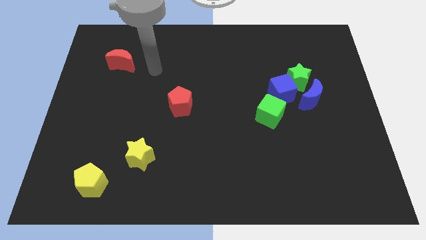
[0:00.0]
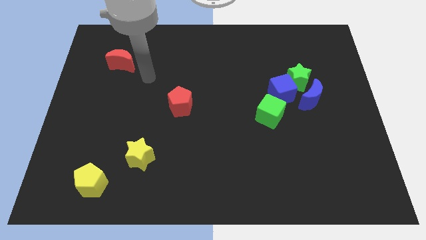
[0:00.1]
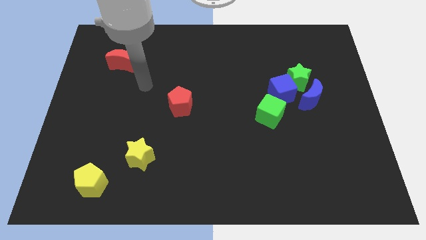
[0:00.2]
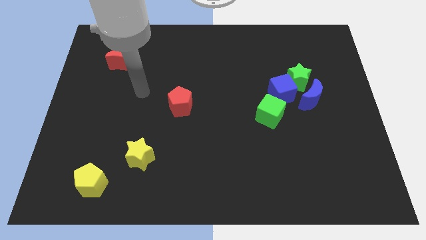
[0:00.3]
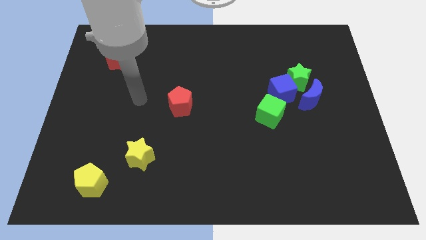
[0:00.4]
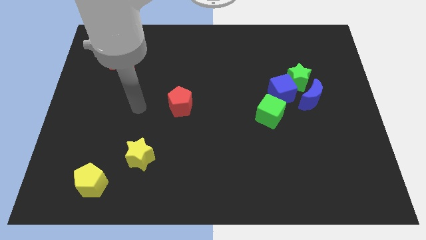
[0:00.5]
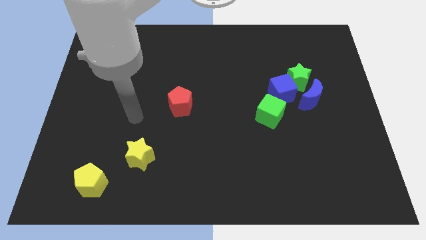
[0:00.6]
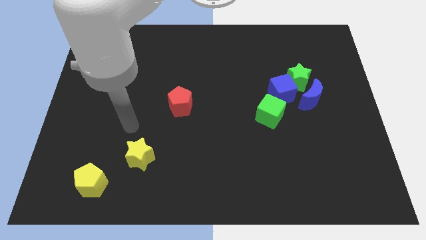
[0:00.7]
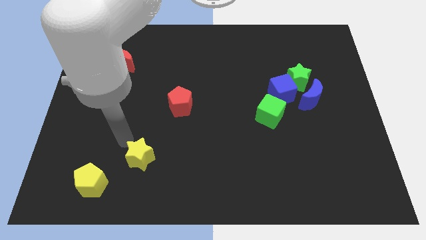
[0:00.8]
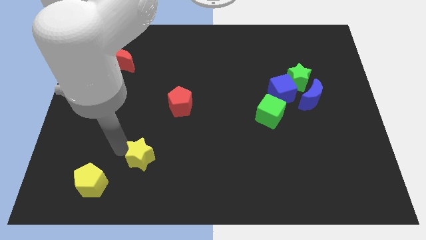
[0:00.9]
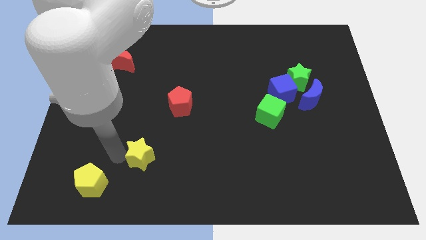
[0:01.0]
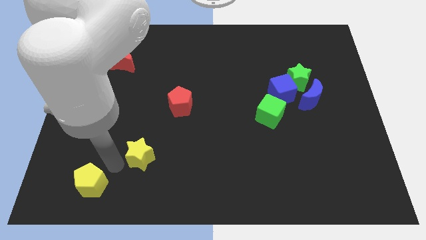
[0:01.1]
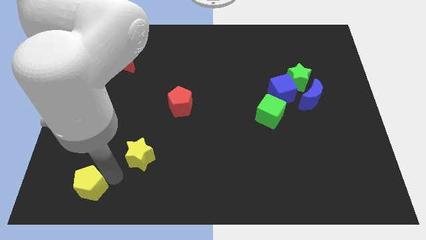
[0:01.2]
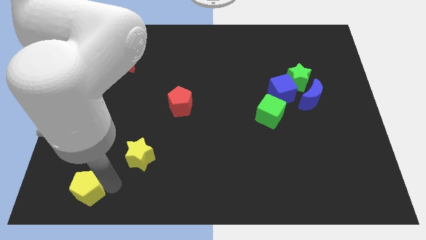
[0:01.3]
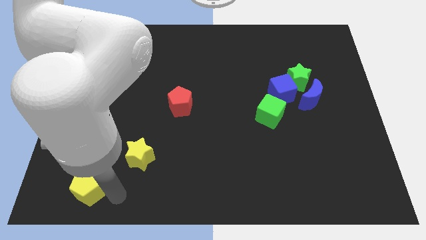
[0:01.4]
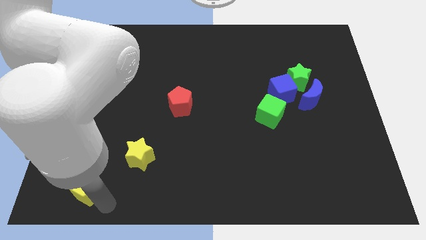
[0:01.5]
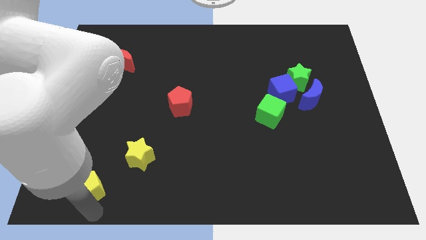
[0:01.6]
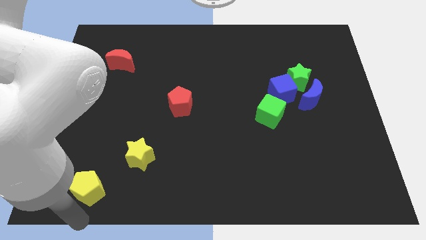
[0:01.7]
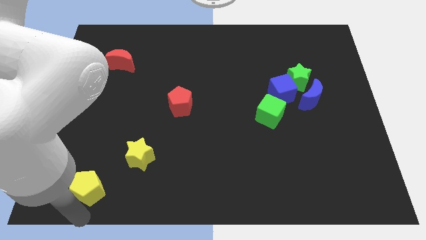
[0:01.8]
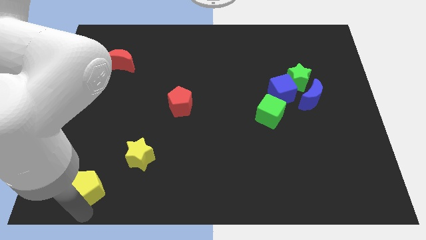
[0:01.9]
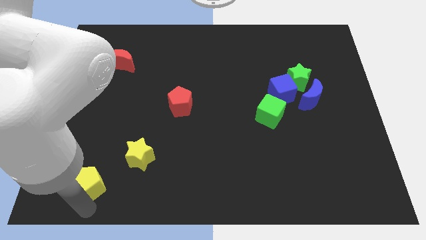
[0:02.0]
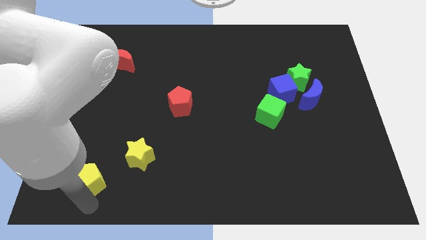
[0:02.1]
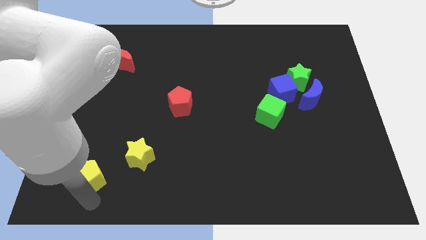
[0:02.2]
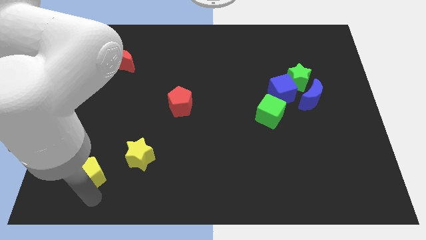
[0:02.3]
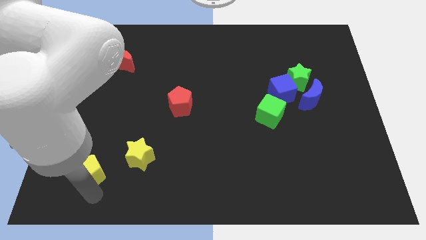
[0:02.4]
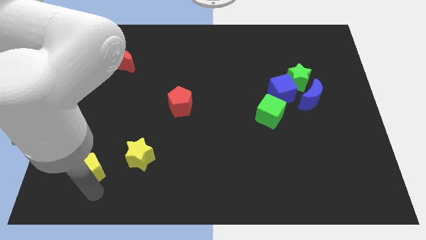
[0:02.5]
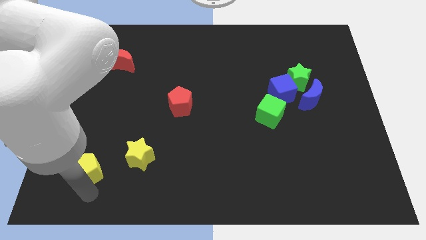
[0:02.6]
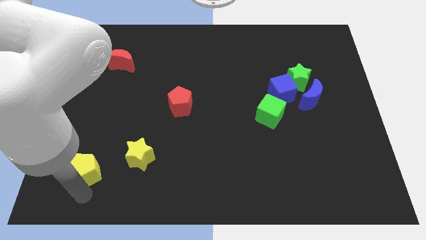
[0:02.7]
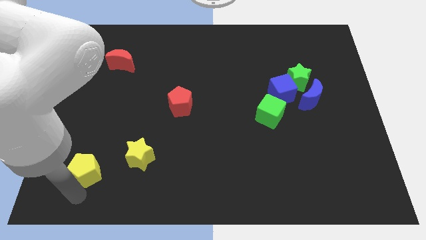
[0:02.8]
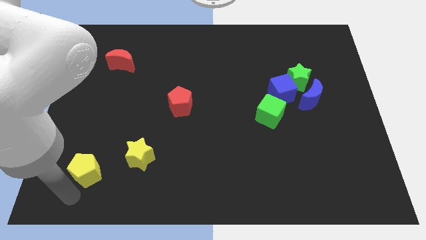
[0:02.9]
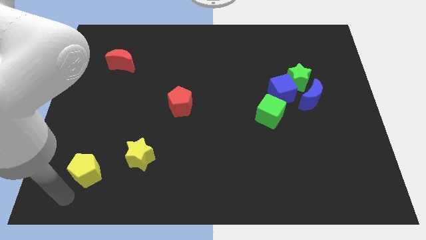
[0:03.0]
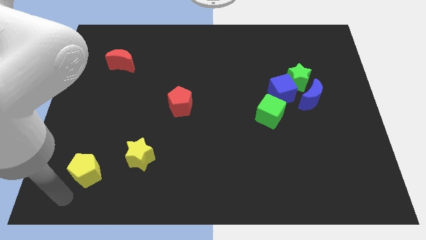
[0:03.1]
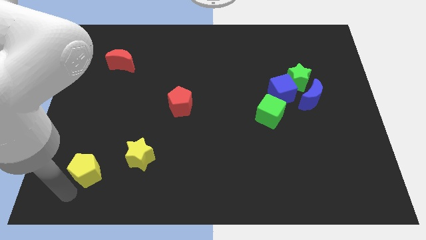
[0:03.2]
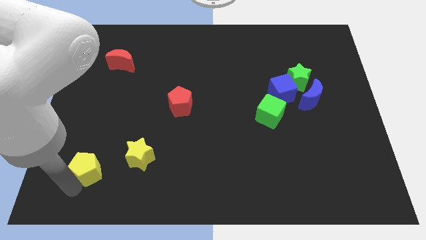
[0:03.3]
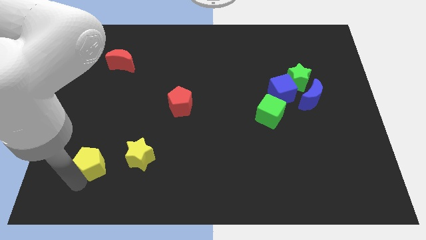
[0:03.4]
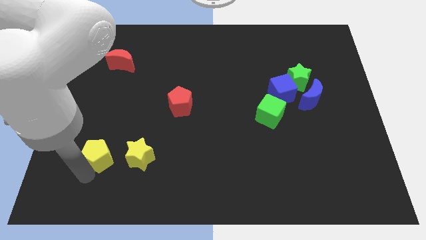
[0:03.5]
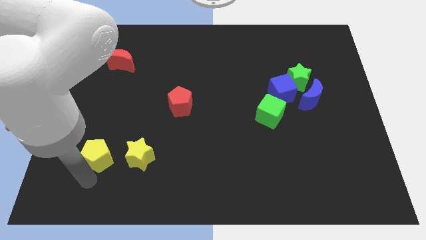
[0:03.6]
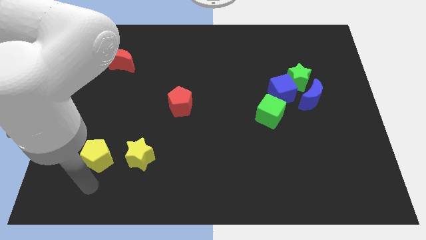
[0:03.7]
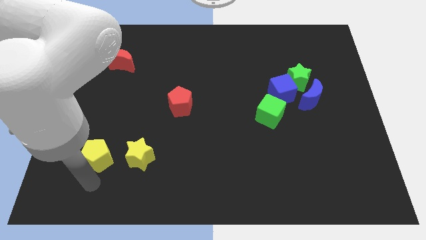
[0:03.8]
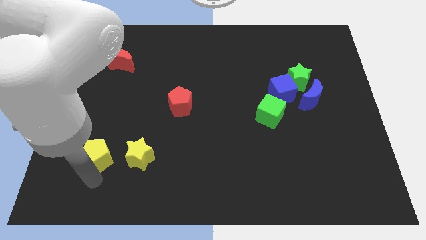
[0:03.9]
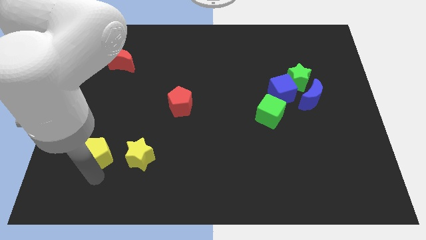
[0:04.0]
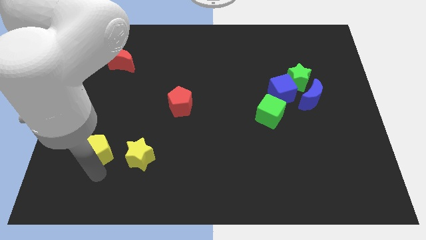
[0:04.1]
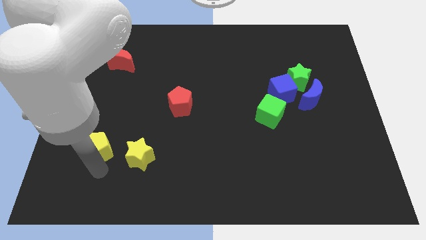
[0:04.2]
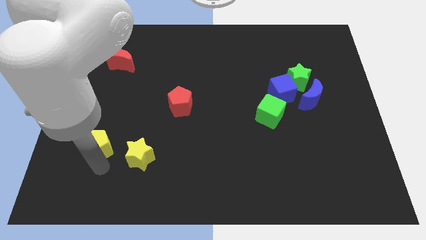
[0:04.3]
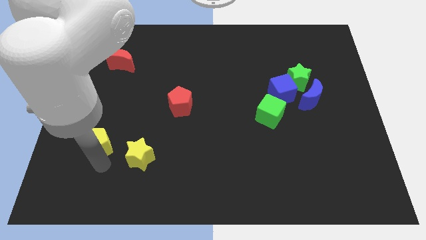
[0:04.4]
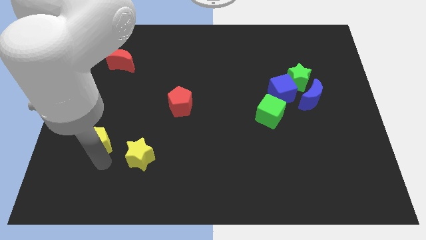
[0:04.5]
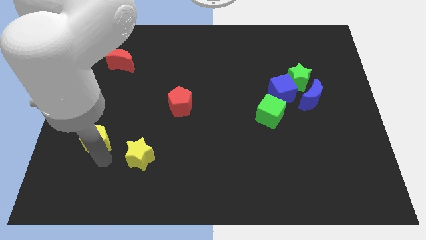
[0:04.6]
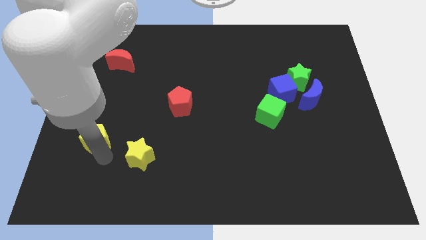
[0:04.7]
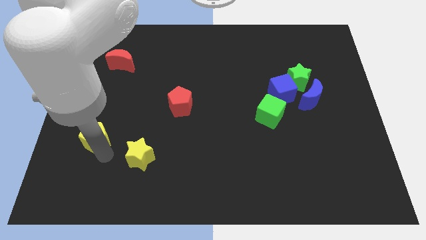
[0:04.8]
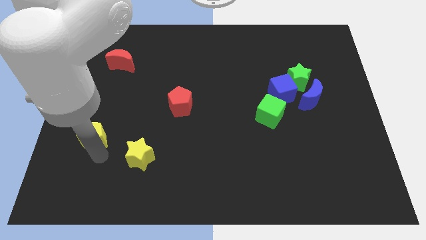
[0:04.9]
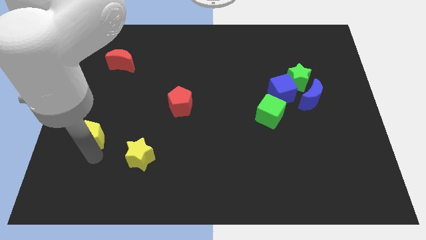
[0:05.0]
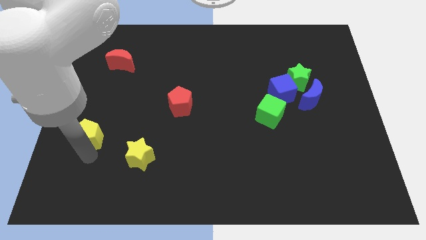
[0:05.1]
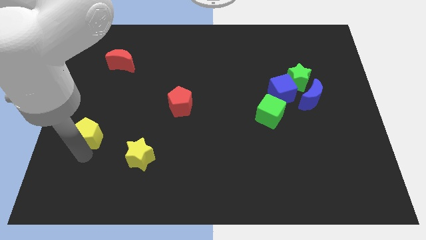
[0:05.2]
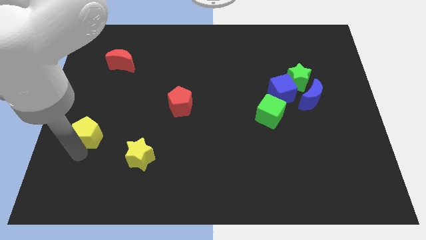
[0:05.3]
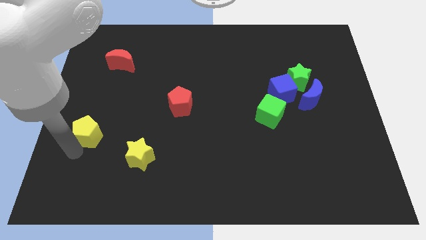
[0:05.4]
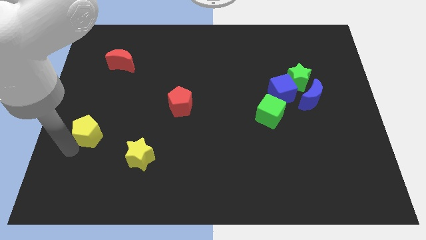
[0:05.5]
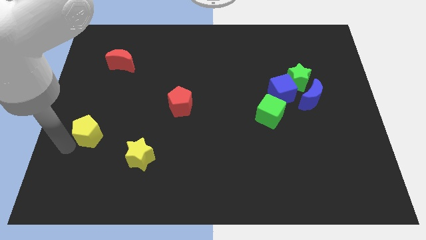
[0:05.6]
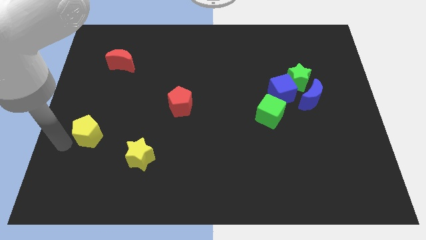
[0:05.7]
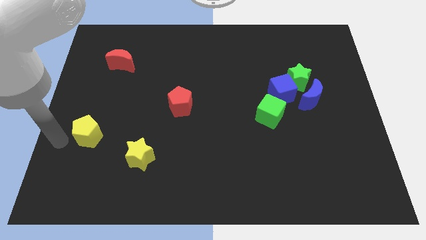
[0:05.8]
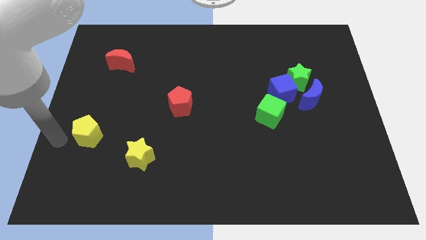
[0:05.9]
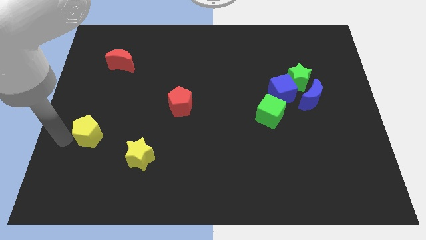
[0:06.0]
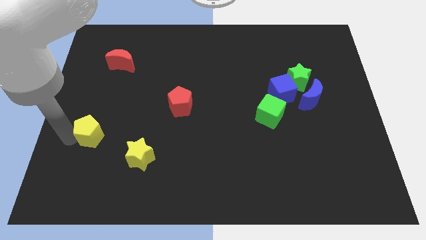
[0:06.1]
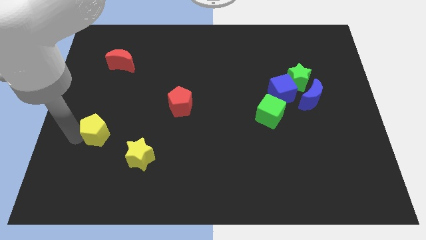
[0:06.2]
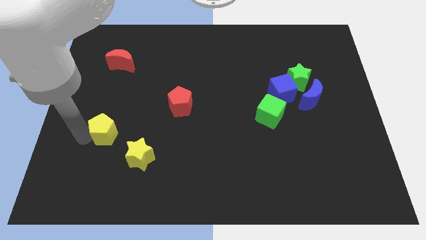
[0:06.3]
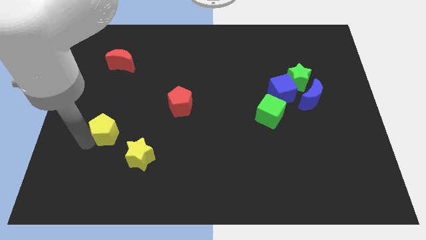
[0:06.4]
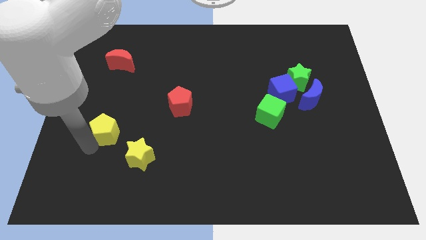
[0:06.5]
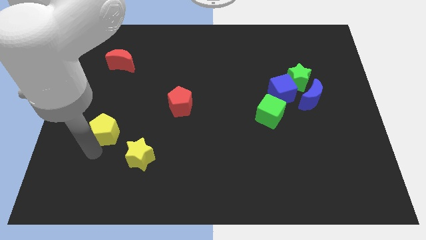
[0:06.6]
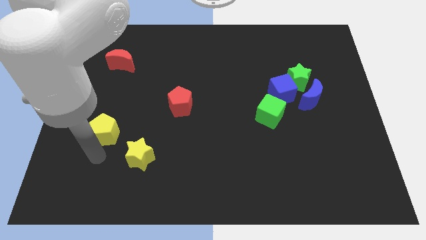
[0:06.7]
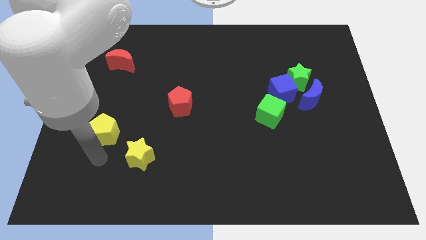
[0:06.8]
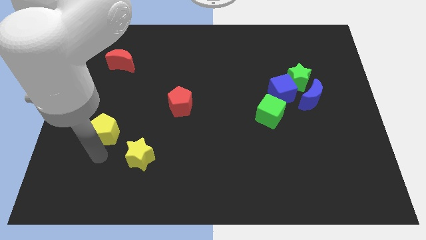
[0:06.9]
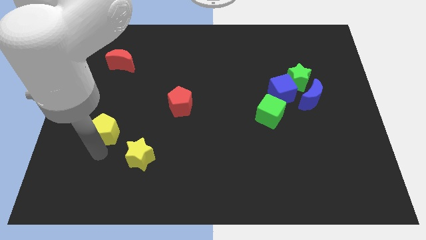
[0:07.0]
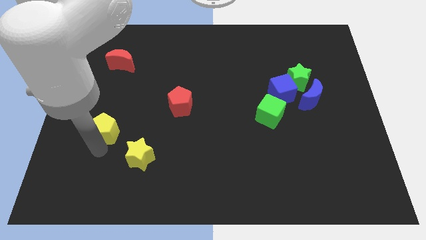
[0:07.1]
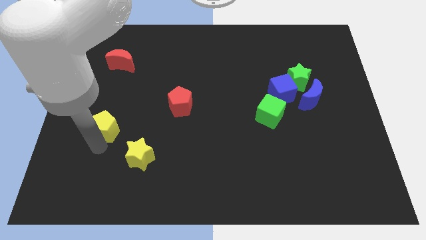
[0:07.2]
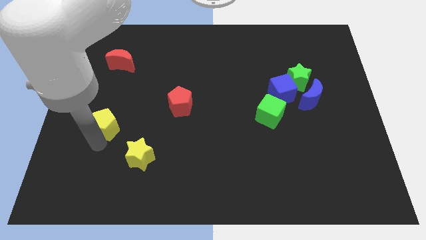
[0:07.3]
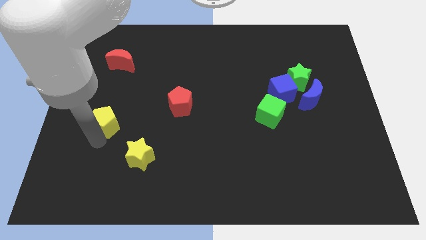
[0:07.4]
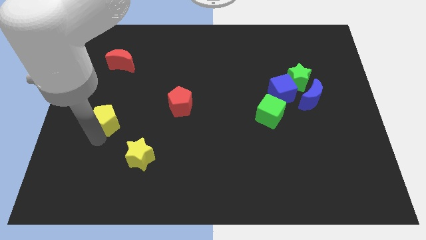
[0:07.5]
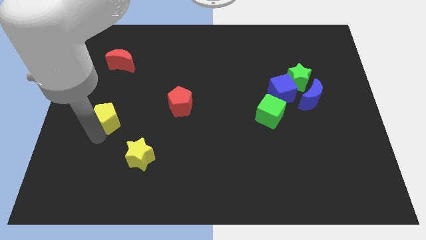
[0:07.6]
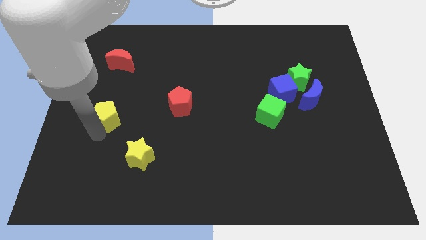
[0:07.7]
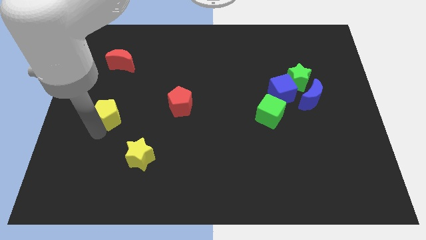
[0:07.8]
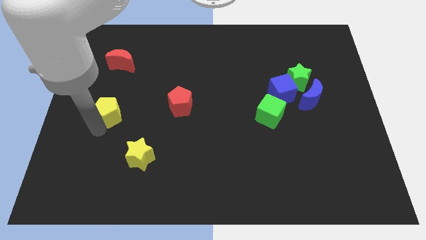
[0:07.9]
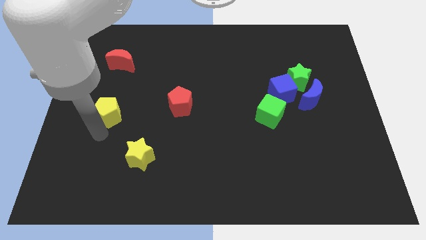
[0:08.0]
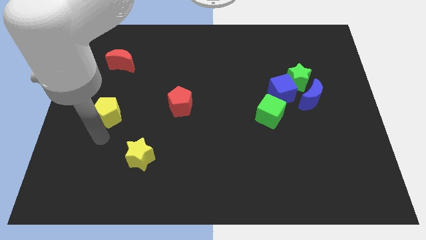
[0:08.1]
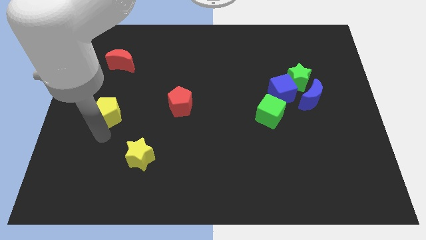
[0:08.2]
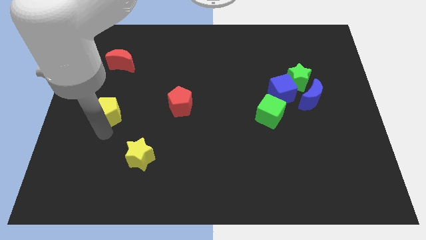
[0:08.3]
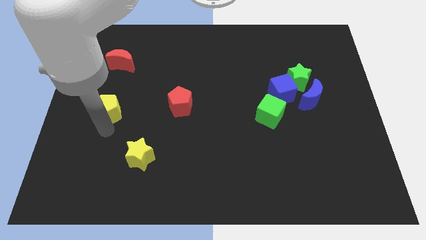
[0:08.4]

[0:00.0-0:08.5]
push the yellow pentagon below the red moon
